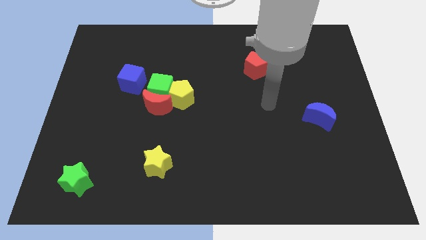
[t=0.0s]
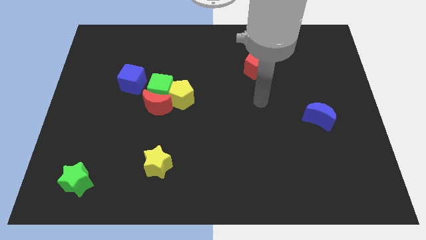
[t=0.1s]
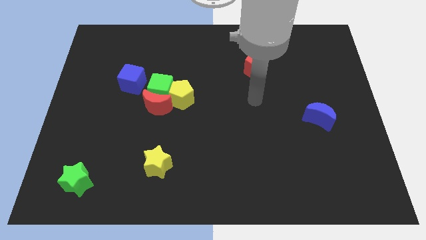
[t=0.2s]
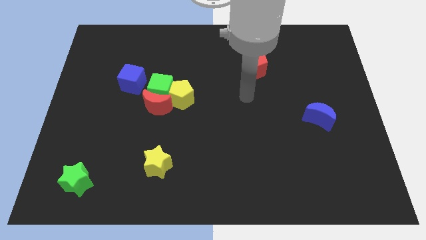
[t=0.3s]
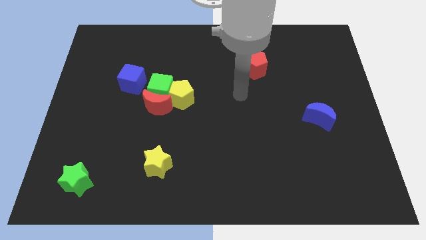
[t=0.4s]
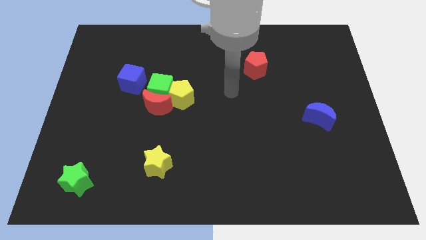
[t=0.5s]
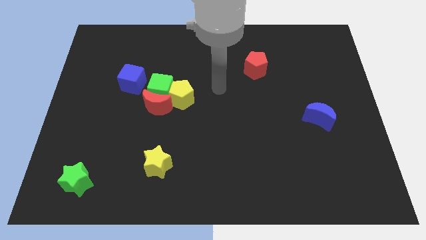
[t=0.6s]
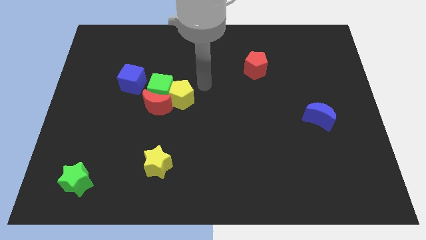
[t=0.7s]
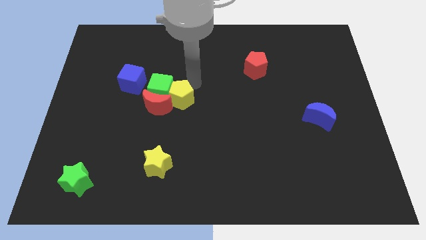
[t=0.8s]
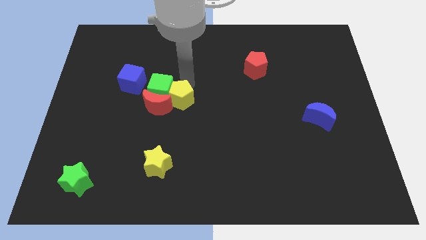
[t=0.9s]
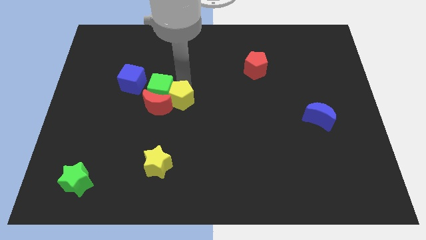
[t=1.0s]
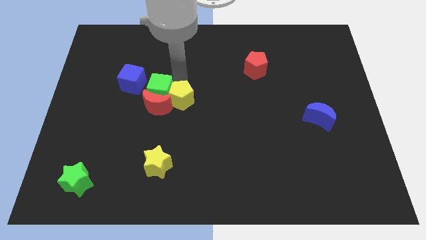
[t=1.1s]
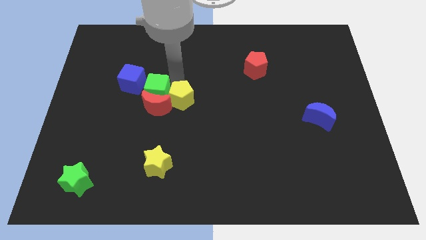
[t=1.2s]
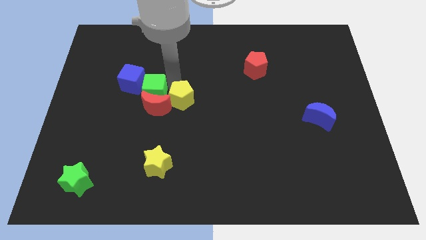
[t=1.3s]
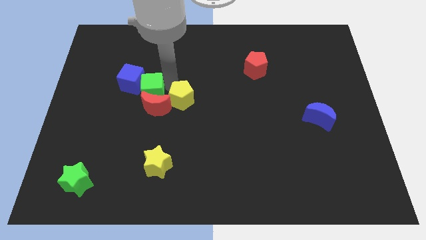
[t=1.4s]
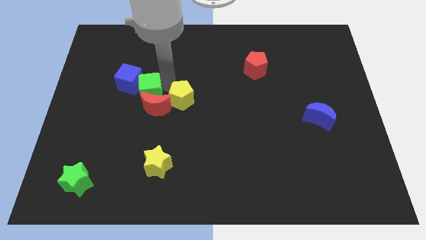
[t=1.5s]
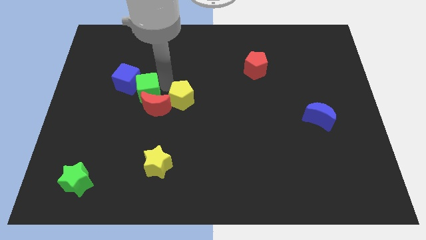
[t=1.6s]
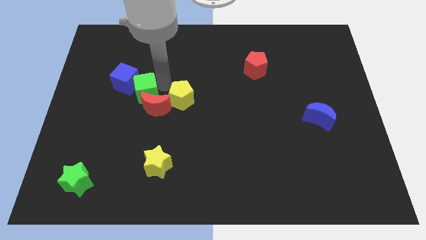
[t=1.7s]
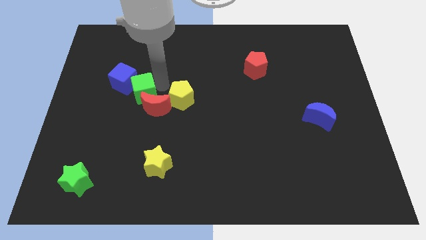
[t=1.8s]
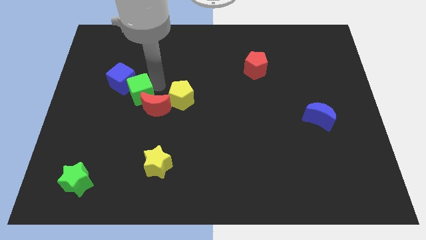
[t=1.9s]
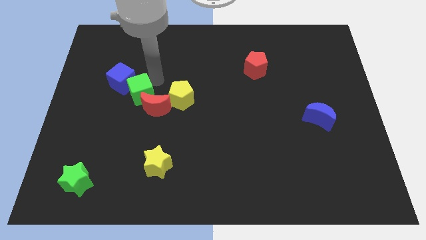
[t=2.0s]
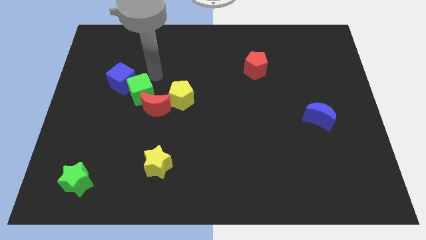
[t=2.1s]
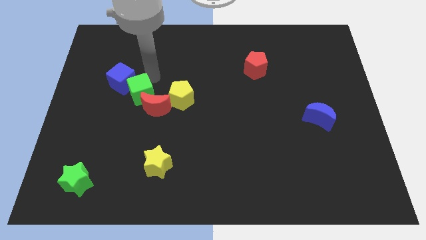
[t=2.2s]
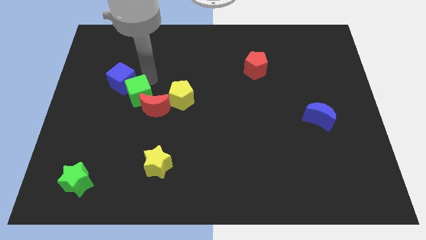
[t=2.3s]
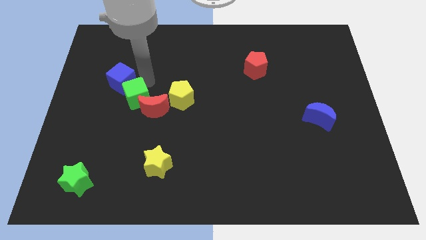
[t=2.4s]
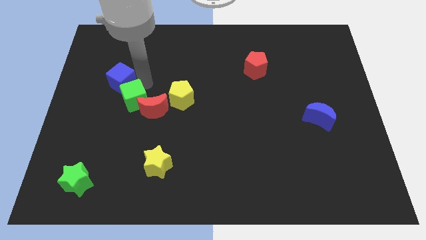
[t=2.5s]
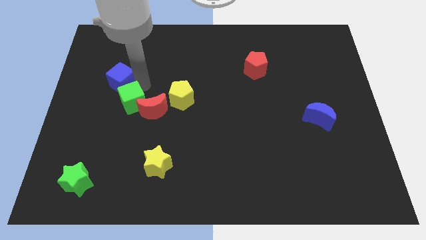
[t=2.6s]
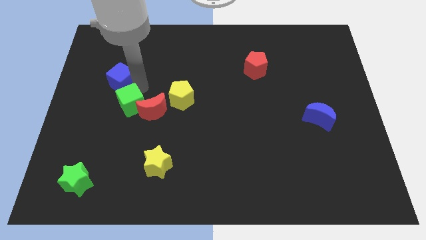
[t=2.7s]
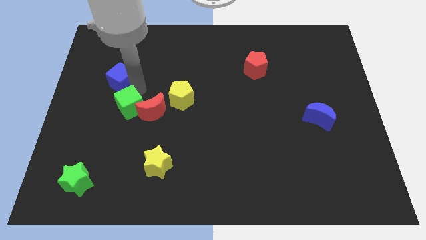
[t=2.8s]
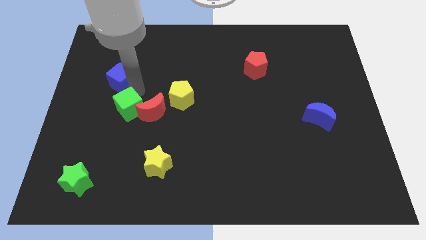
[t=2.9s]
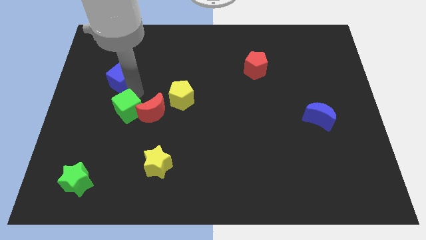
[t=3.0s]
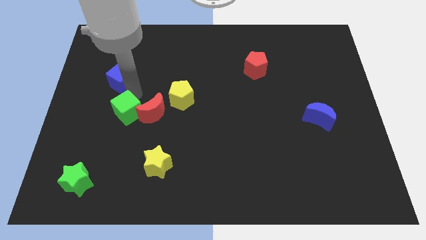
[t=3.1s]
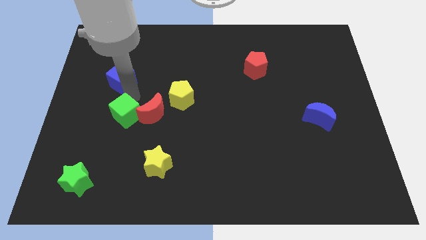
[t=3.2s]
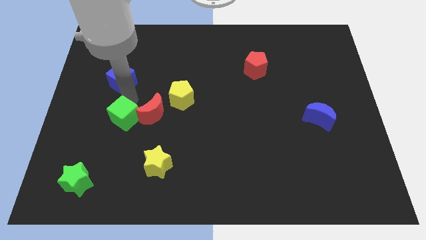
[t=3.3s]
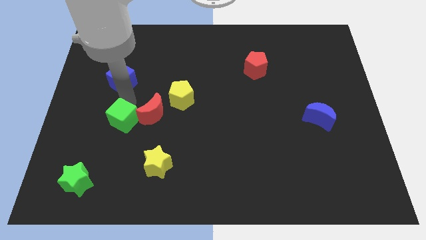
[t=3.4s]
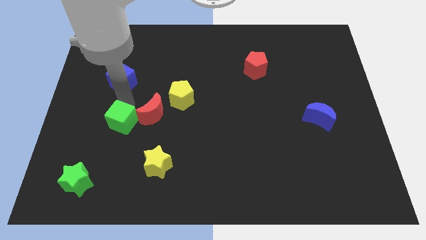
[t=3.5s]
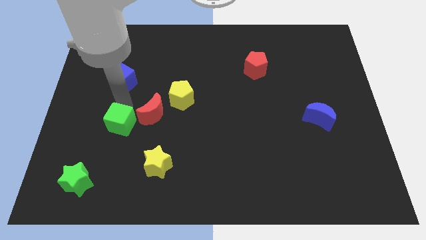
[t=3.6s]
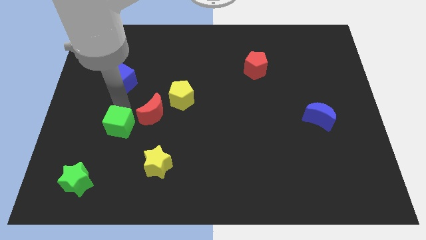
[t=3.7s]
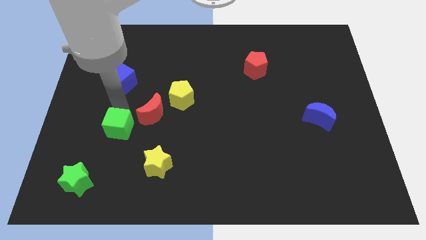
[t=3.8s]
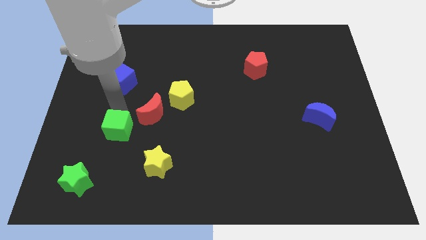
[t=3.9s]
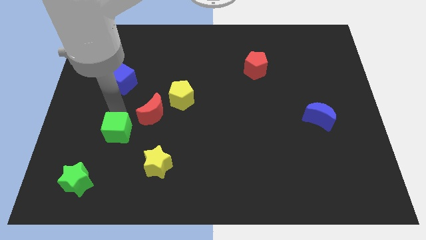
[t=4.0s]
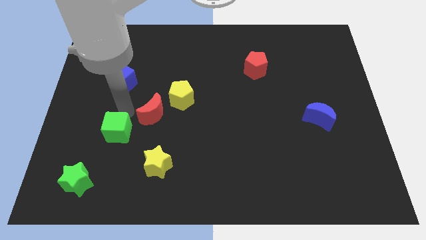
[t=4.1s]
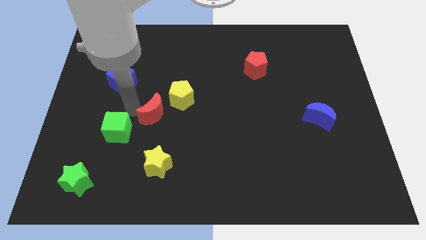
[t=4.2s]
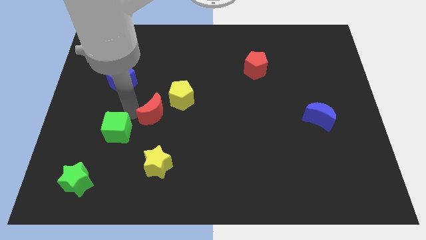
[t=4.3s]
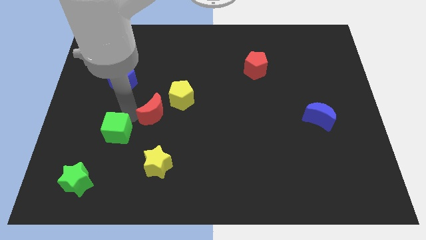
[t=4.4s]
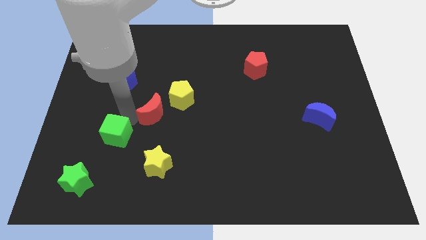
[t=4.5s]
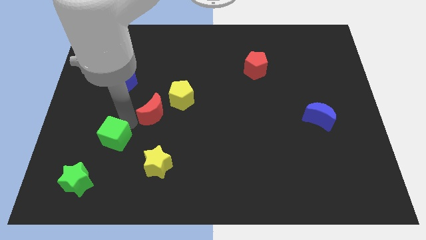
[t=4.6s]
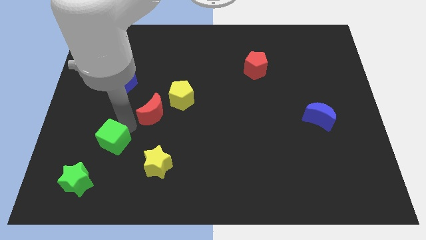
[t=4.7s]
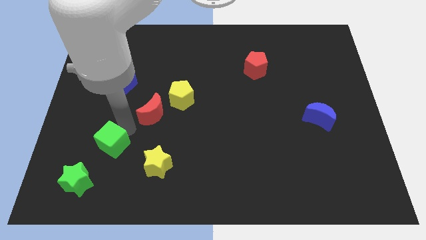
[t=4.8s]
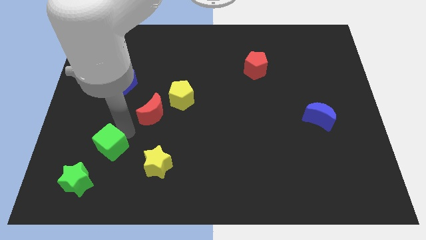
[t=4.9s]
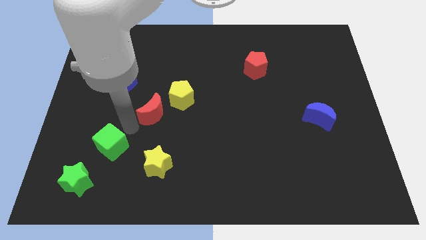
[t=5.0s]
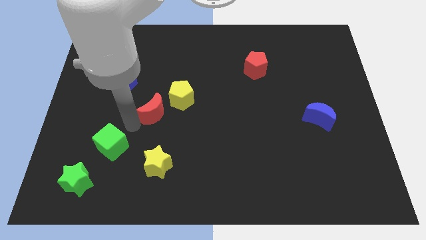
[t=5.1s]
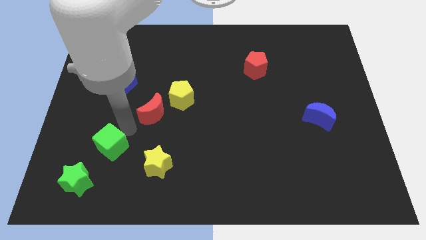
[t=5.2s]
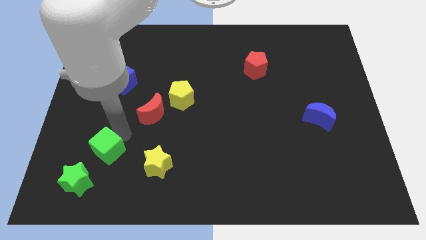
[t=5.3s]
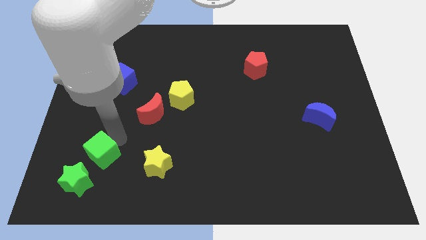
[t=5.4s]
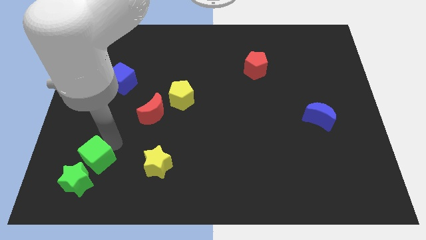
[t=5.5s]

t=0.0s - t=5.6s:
move the green cube to the green star

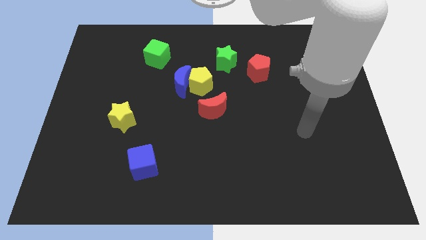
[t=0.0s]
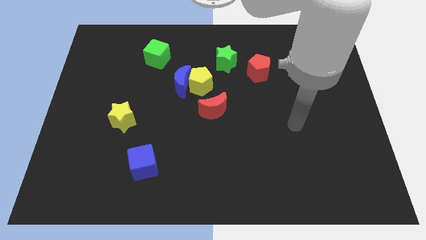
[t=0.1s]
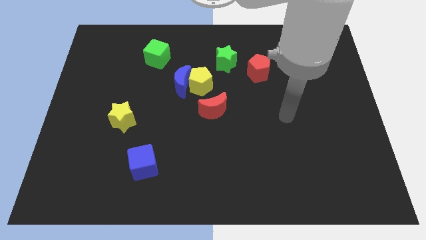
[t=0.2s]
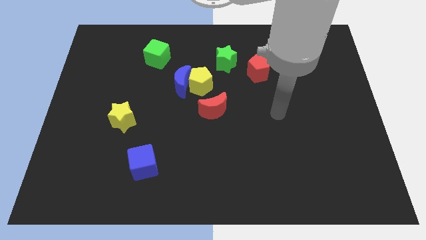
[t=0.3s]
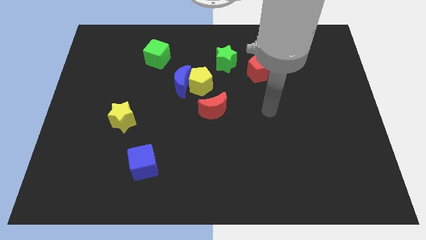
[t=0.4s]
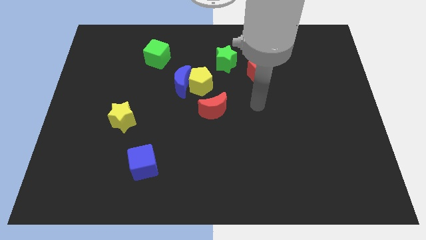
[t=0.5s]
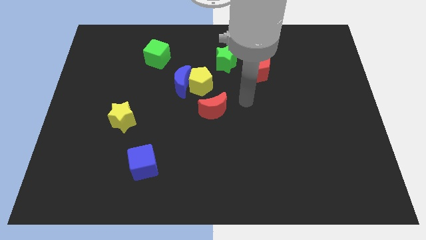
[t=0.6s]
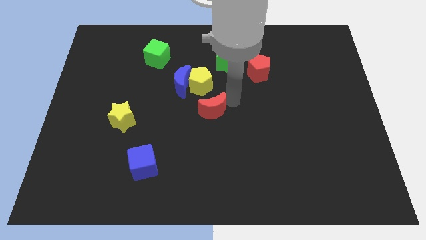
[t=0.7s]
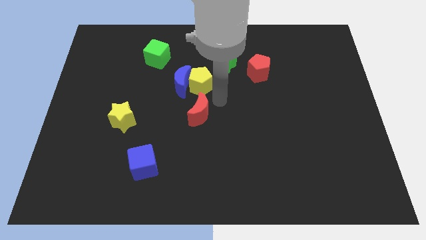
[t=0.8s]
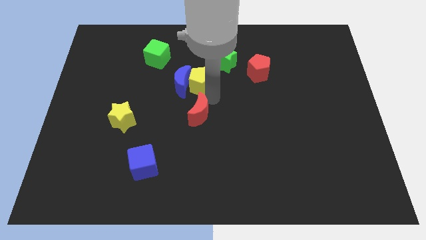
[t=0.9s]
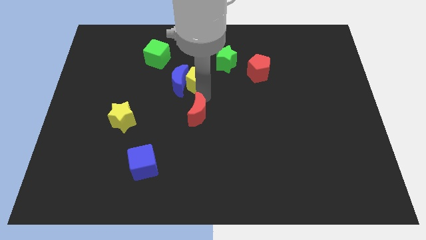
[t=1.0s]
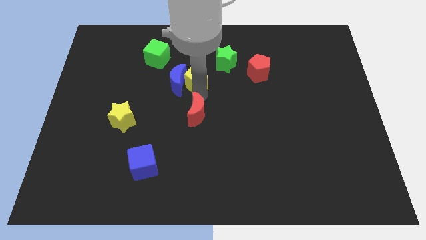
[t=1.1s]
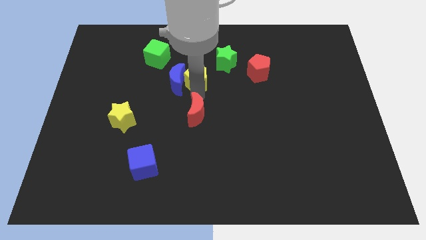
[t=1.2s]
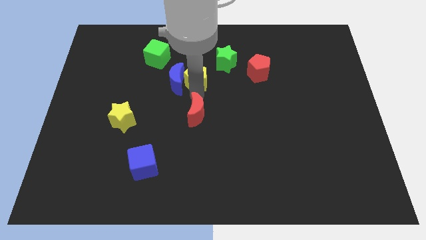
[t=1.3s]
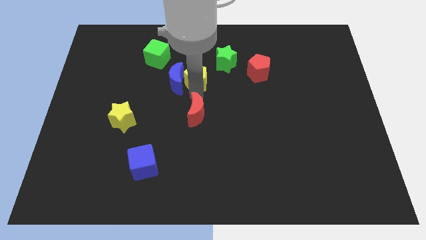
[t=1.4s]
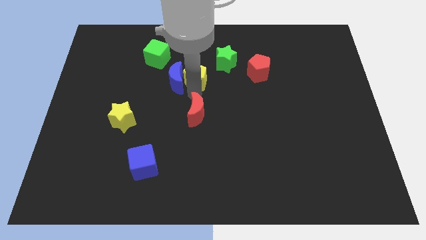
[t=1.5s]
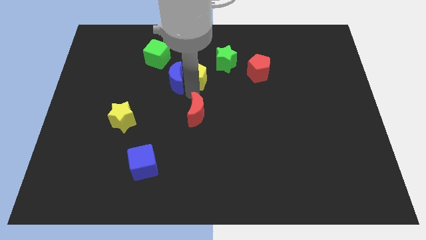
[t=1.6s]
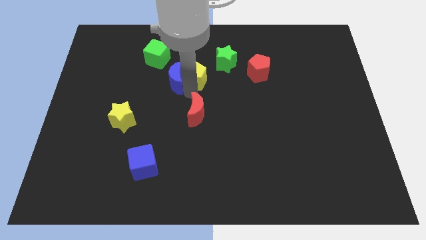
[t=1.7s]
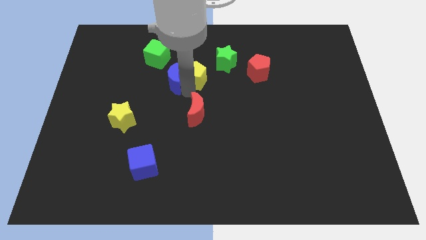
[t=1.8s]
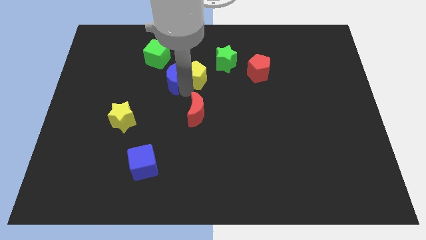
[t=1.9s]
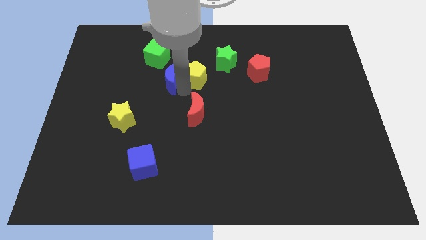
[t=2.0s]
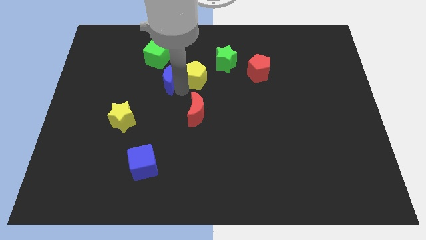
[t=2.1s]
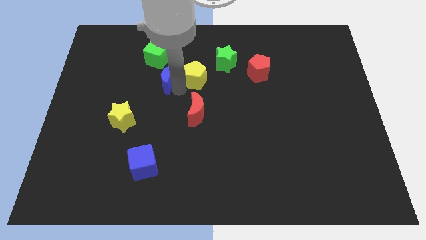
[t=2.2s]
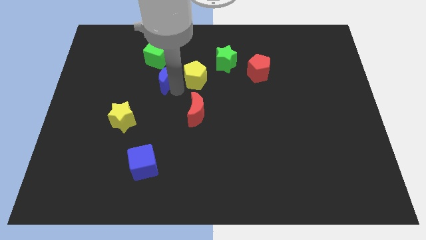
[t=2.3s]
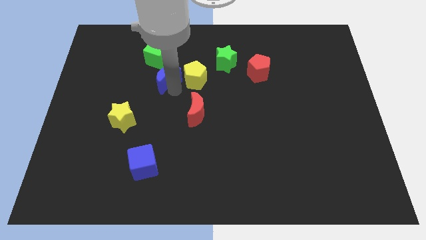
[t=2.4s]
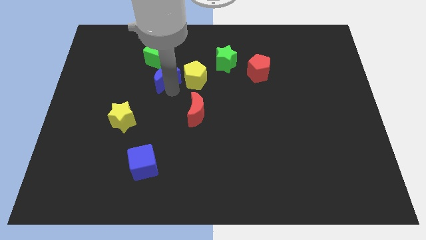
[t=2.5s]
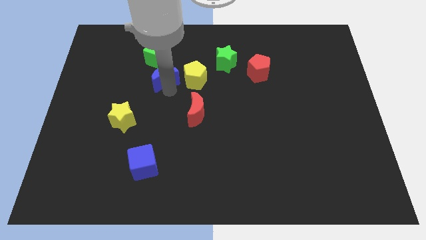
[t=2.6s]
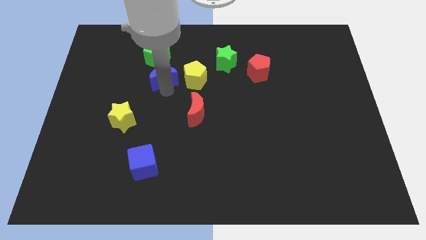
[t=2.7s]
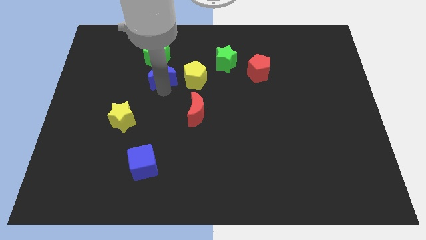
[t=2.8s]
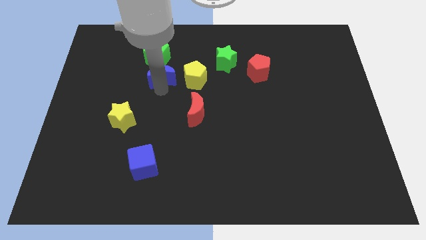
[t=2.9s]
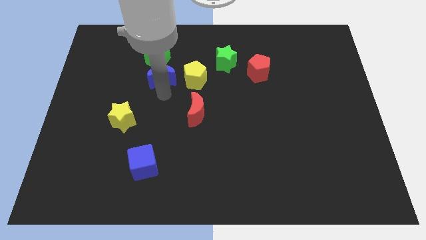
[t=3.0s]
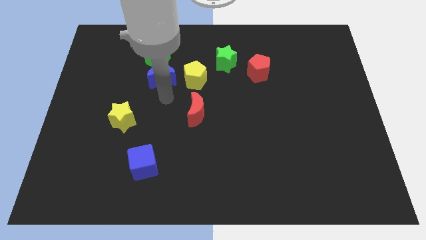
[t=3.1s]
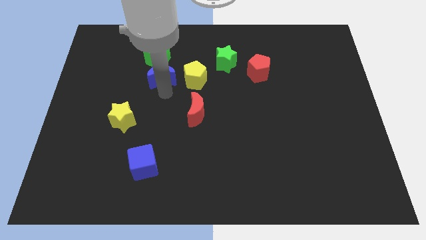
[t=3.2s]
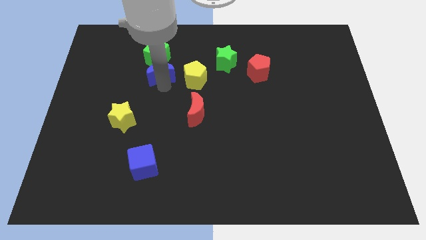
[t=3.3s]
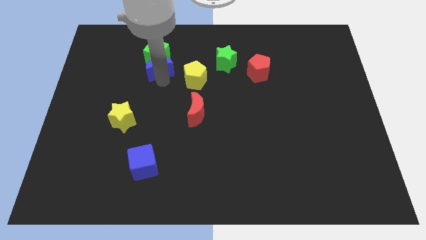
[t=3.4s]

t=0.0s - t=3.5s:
move the blue moon to the green cube
